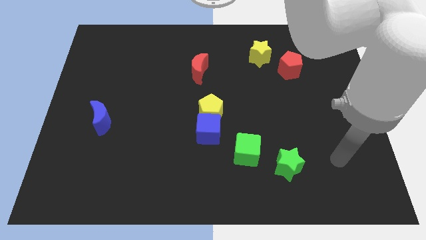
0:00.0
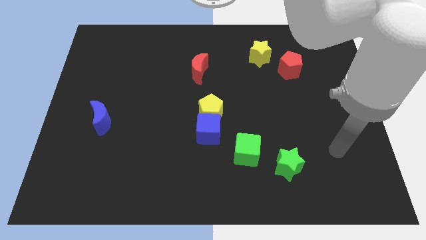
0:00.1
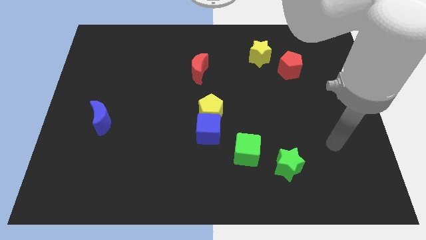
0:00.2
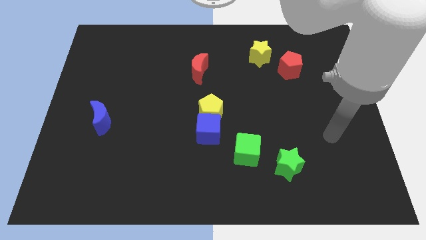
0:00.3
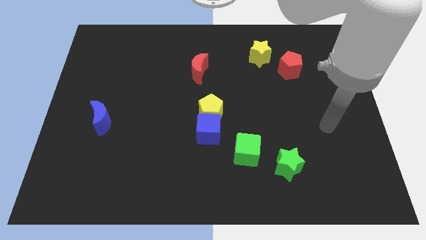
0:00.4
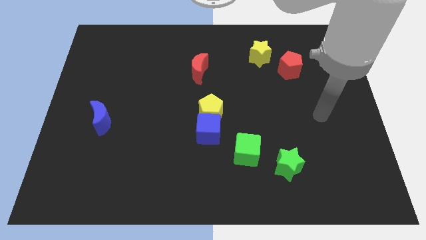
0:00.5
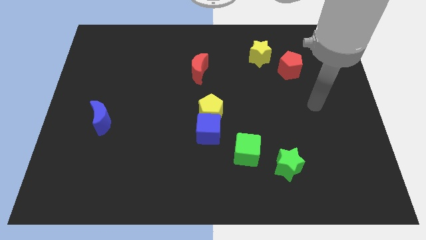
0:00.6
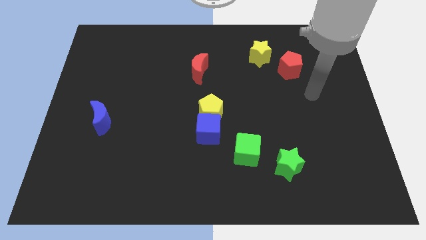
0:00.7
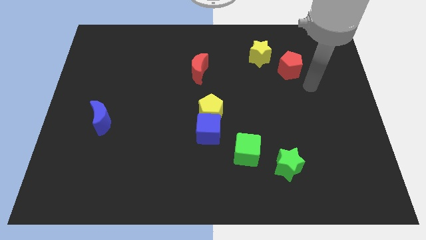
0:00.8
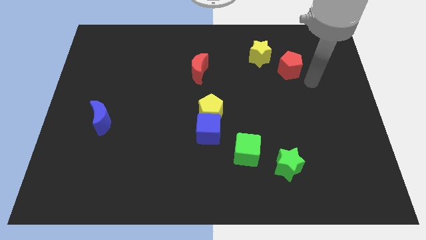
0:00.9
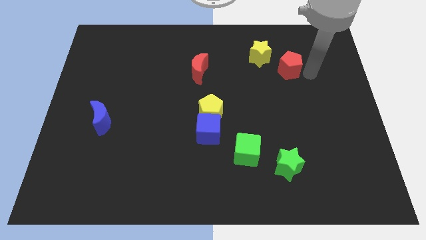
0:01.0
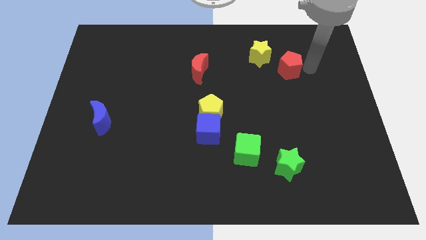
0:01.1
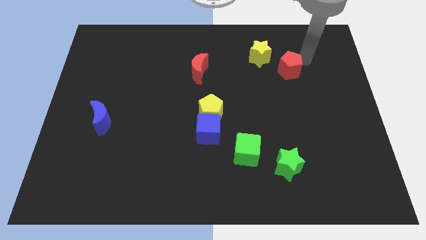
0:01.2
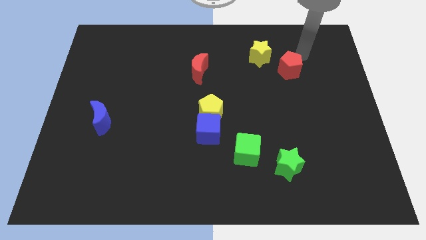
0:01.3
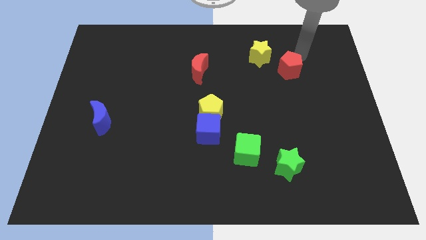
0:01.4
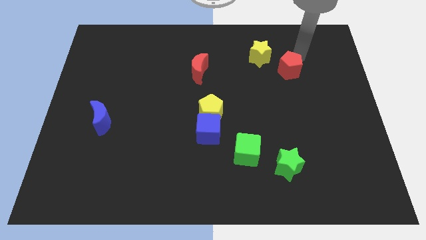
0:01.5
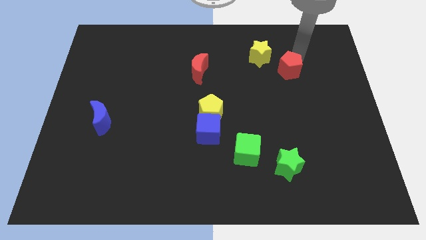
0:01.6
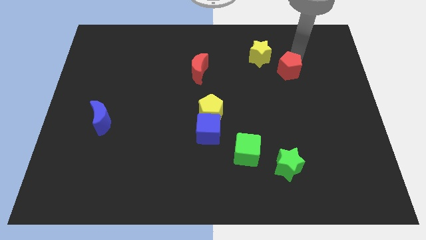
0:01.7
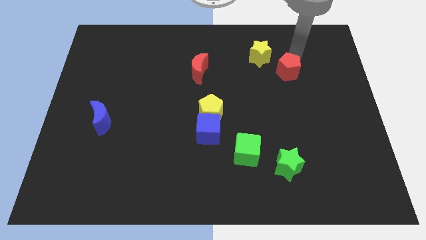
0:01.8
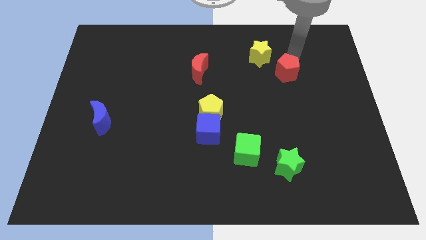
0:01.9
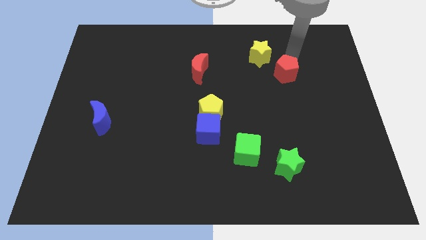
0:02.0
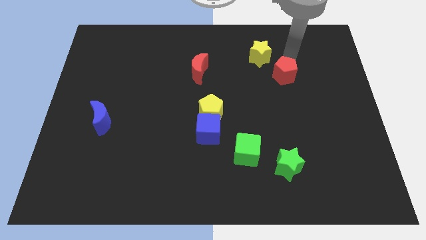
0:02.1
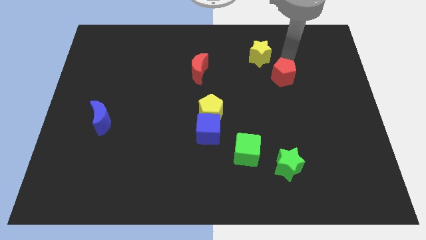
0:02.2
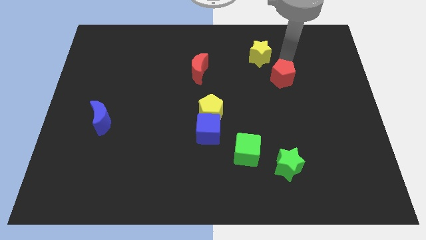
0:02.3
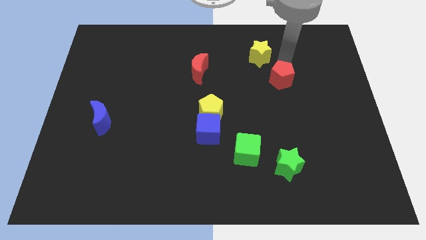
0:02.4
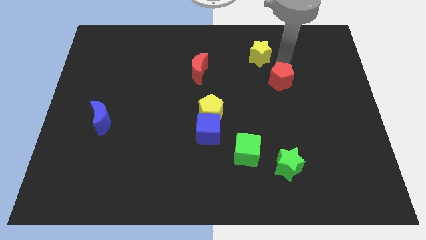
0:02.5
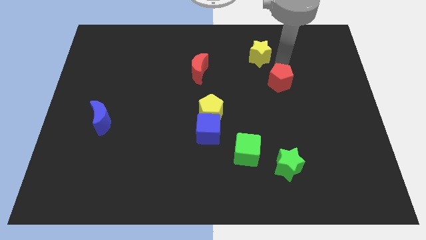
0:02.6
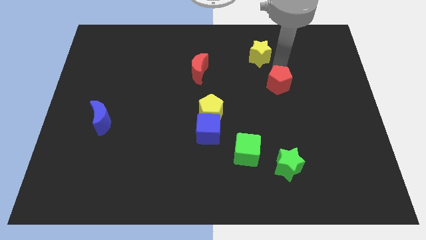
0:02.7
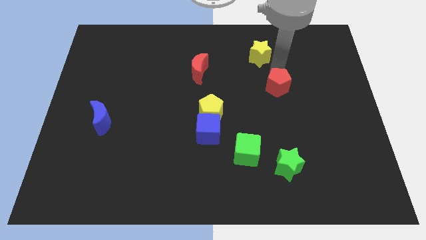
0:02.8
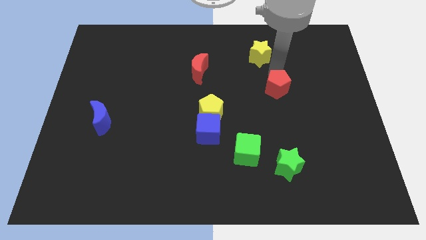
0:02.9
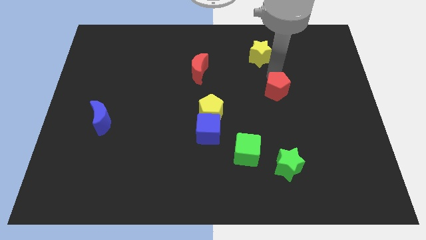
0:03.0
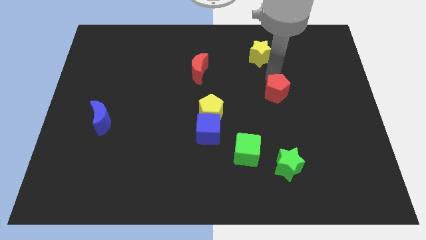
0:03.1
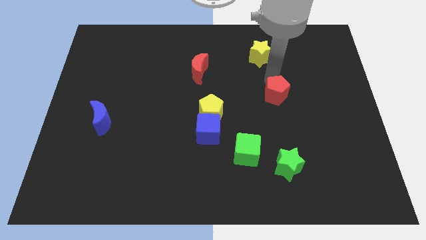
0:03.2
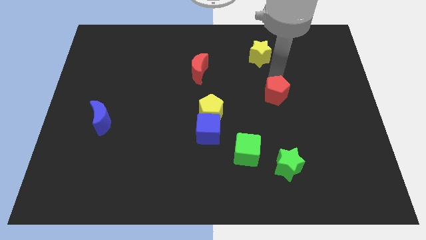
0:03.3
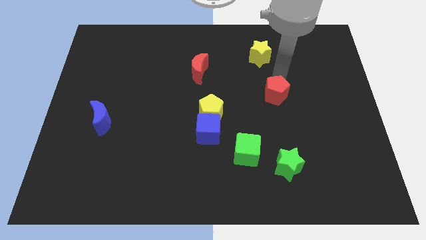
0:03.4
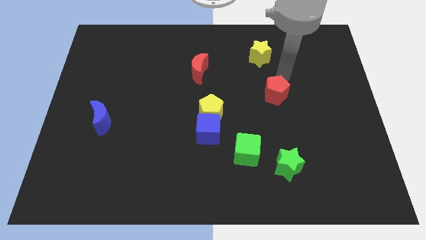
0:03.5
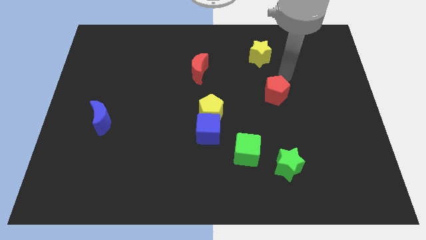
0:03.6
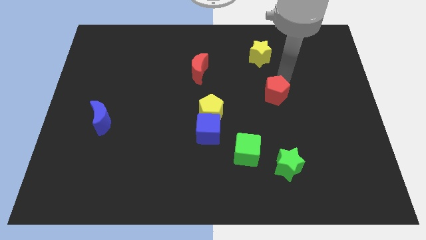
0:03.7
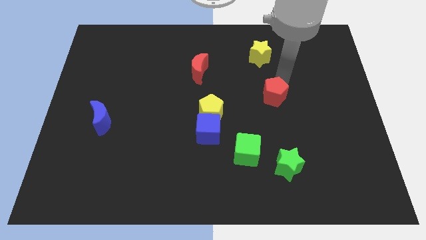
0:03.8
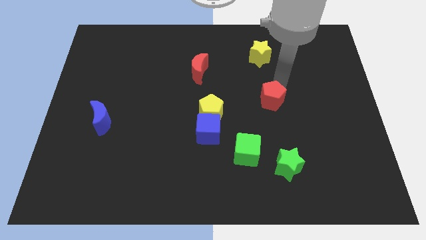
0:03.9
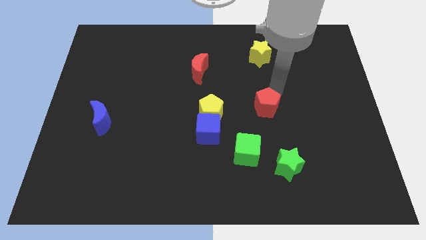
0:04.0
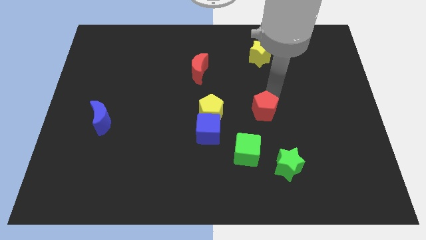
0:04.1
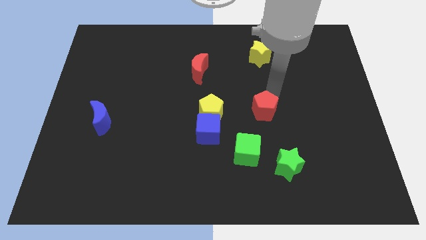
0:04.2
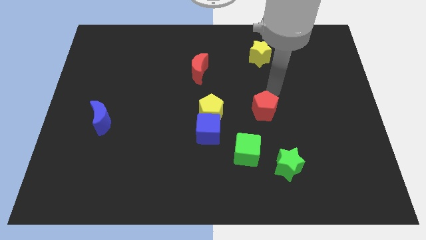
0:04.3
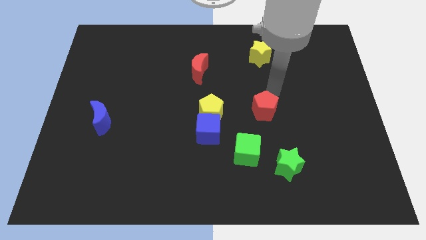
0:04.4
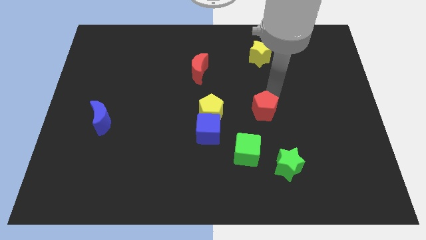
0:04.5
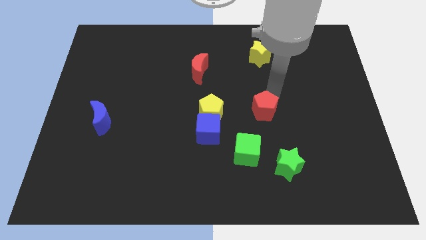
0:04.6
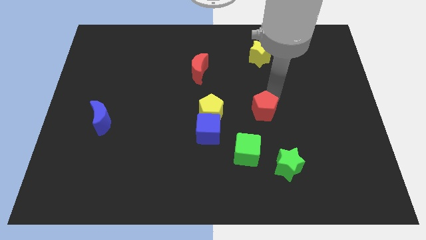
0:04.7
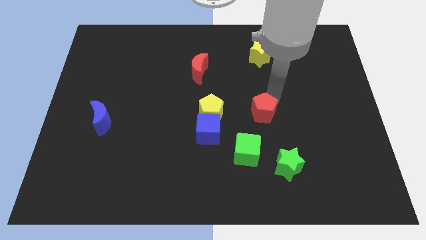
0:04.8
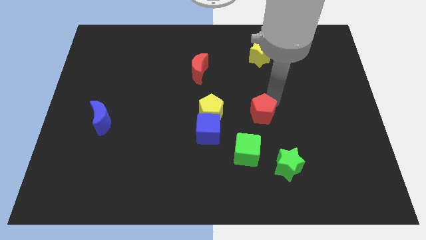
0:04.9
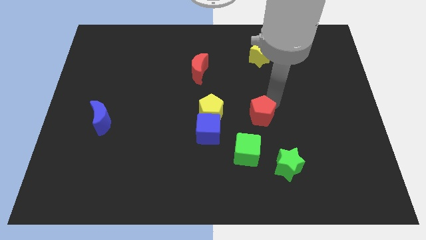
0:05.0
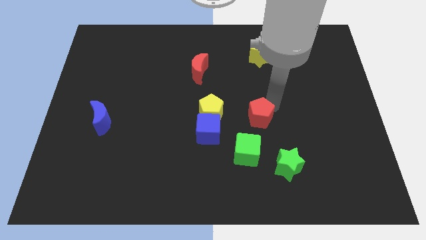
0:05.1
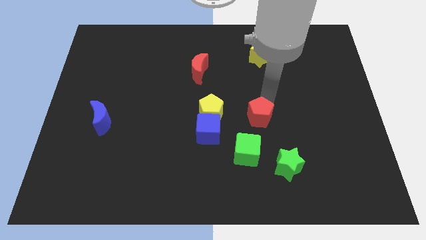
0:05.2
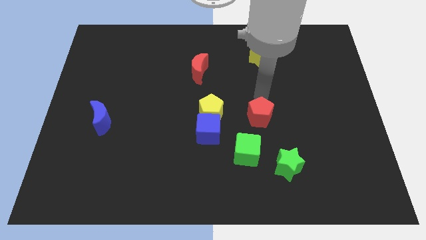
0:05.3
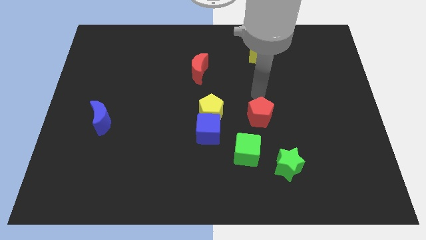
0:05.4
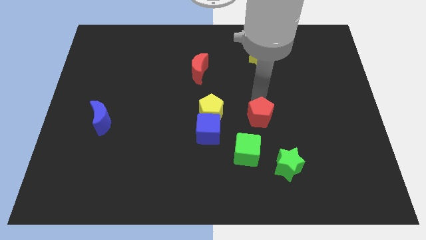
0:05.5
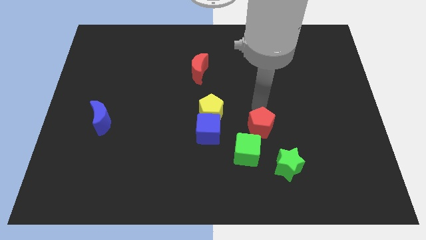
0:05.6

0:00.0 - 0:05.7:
push the red pentagon diagonally up and to the left of the green star

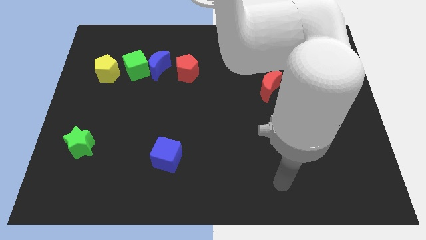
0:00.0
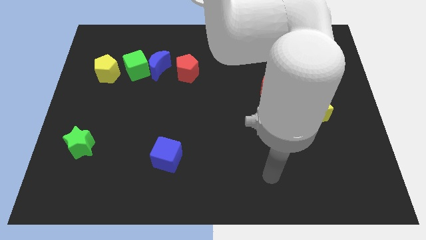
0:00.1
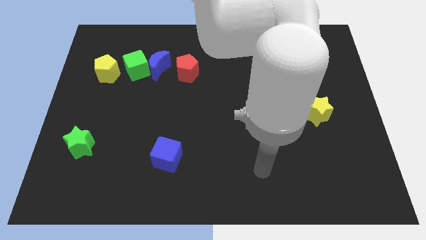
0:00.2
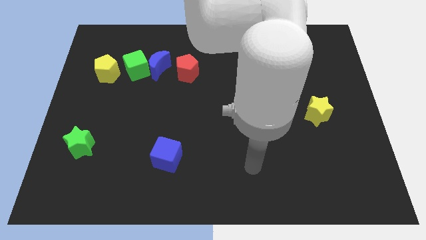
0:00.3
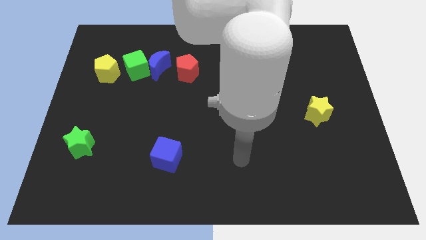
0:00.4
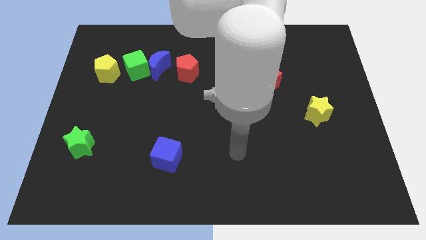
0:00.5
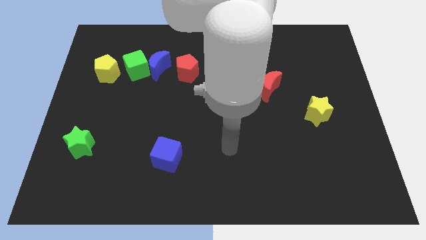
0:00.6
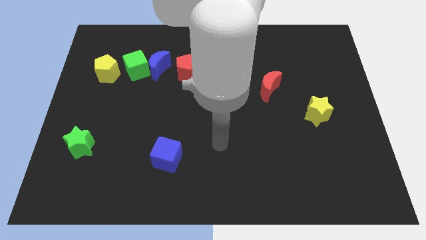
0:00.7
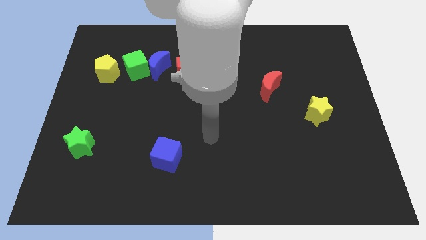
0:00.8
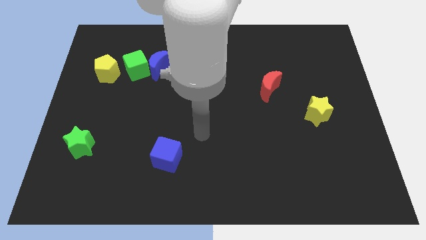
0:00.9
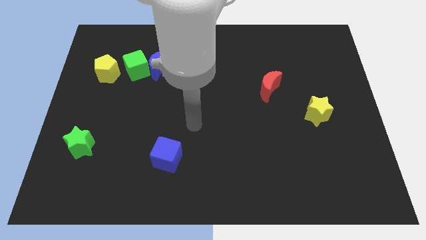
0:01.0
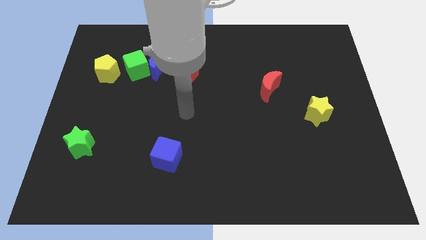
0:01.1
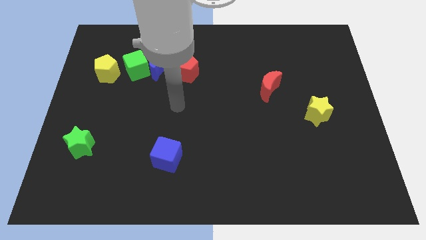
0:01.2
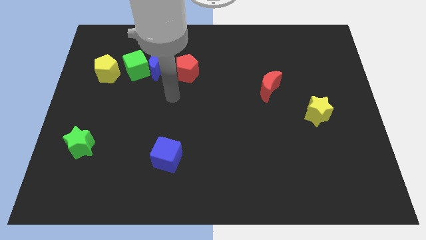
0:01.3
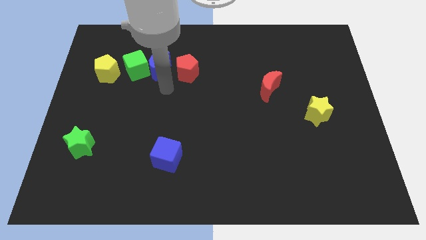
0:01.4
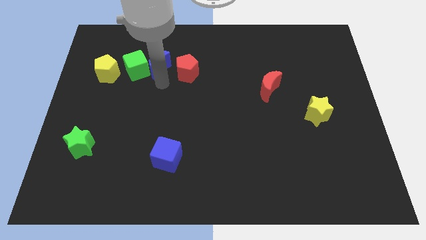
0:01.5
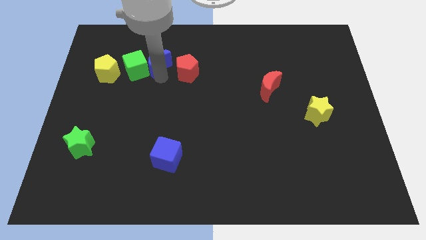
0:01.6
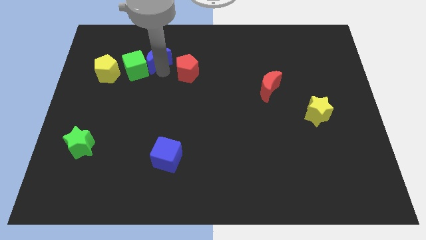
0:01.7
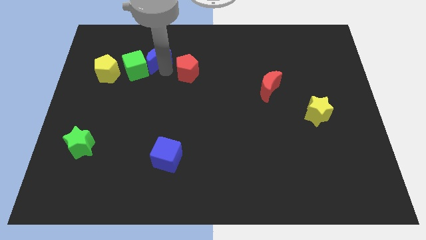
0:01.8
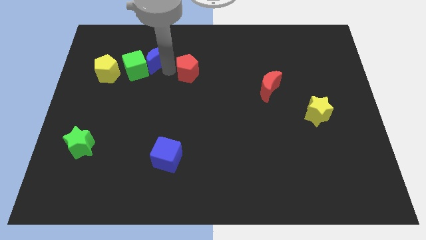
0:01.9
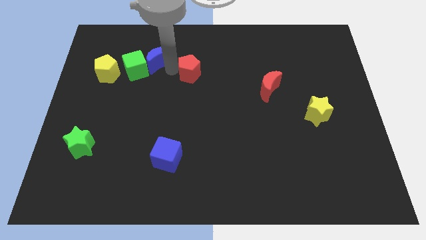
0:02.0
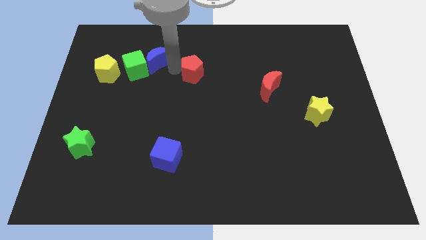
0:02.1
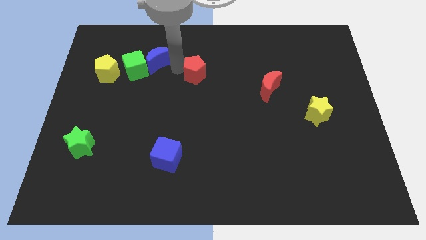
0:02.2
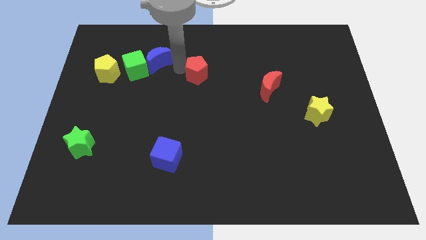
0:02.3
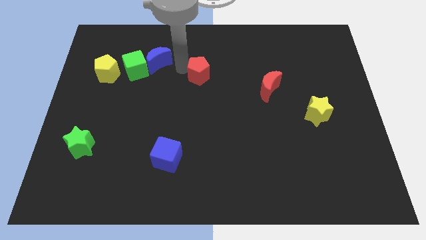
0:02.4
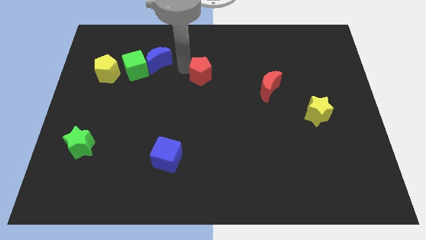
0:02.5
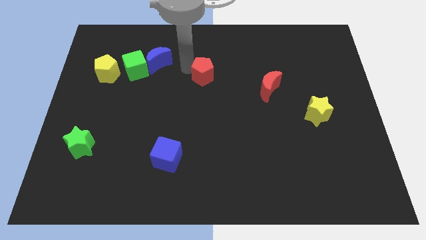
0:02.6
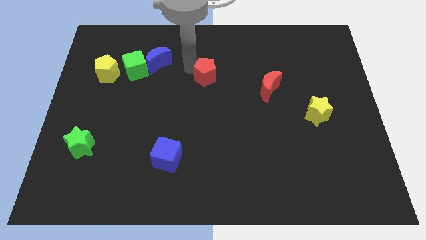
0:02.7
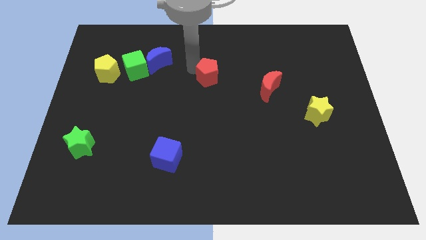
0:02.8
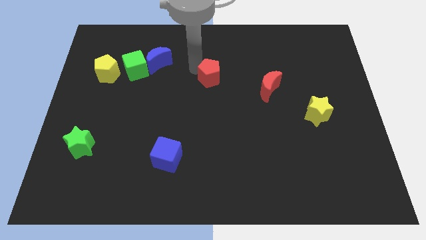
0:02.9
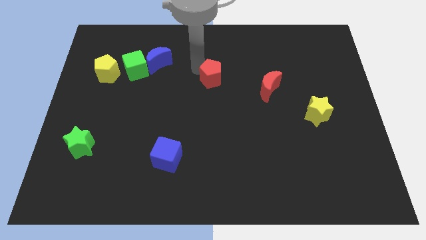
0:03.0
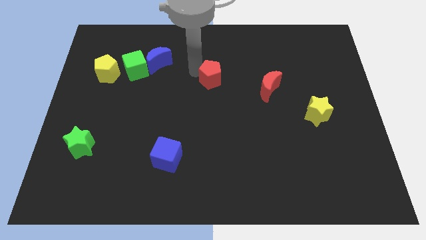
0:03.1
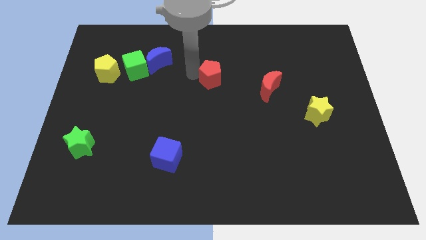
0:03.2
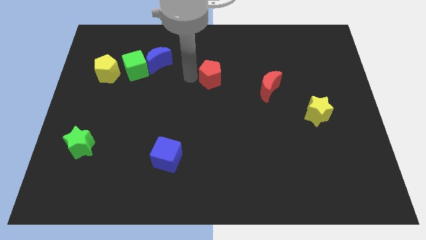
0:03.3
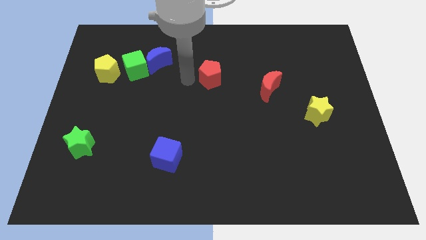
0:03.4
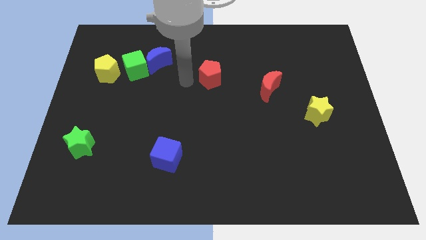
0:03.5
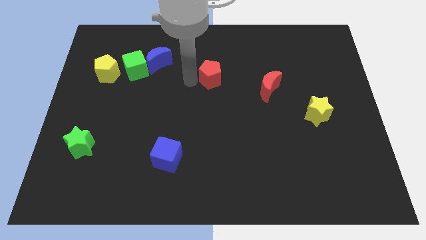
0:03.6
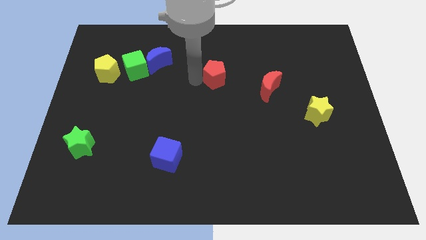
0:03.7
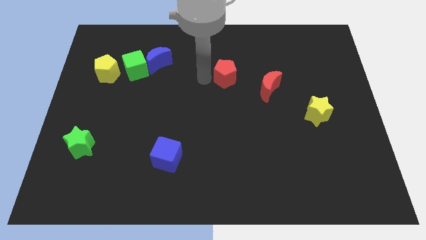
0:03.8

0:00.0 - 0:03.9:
put the red pentagon to the top left side of the red moon
